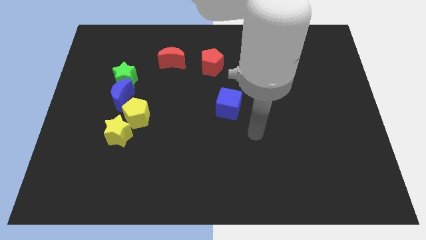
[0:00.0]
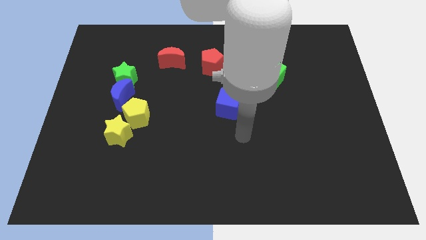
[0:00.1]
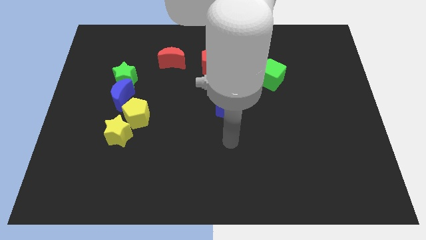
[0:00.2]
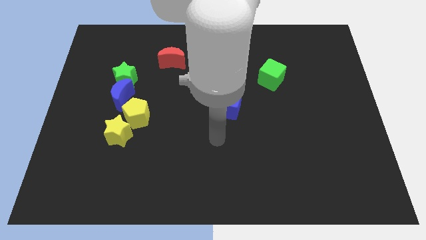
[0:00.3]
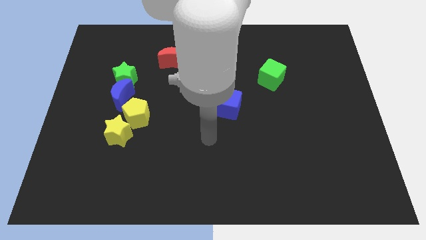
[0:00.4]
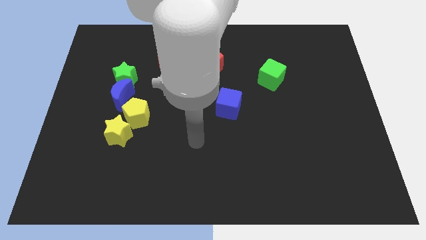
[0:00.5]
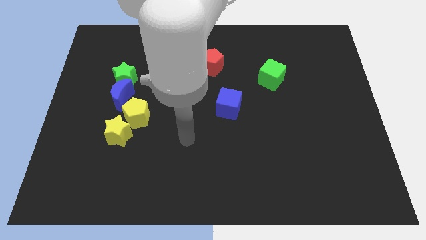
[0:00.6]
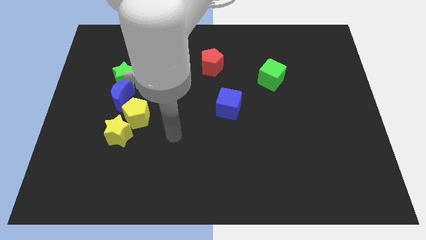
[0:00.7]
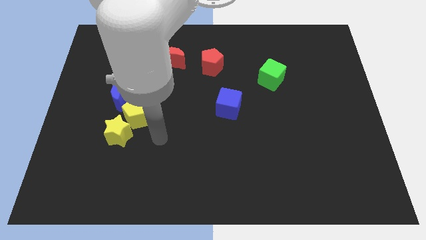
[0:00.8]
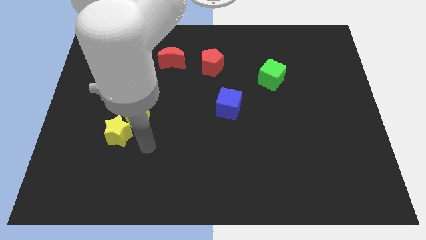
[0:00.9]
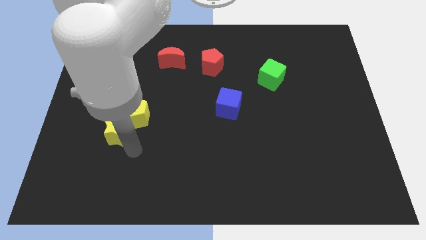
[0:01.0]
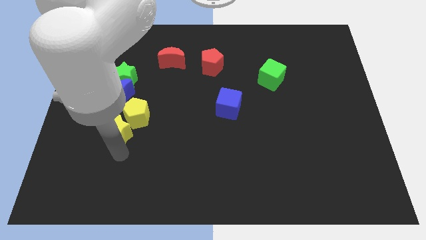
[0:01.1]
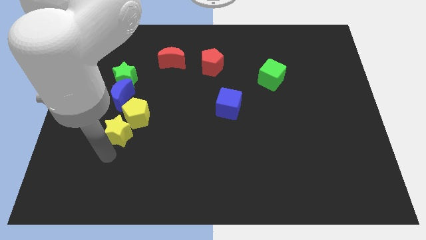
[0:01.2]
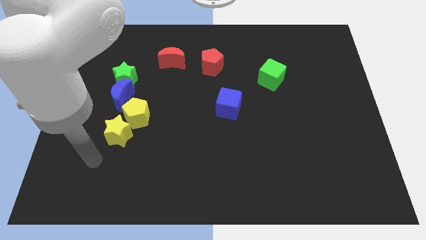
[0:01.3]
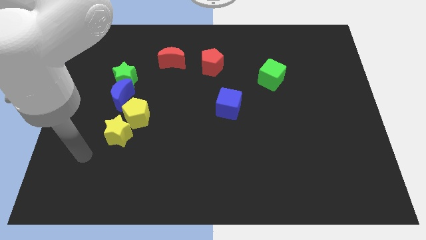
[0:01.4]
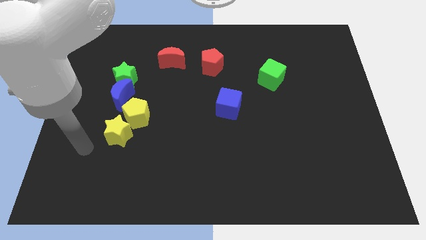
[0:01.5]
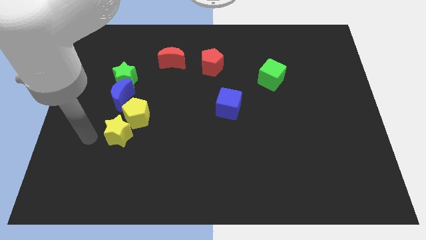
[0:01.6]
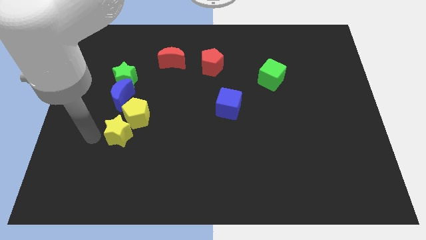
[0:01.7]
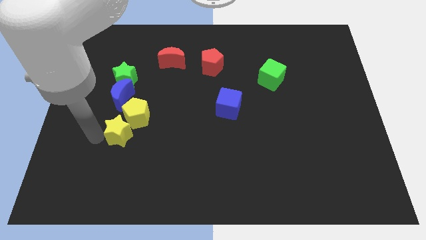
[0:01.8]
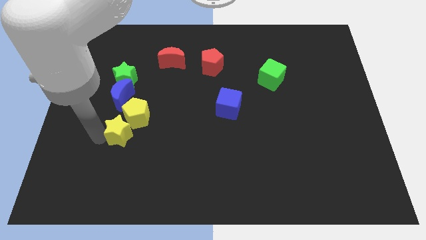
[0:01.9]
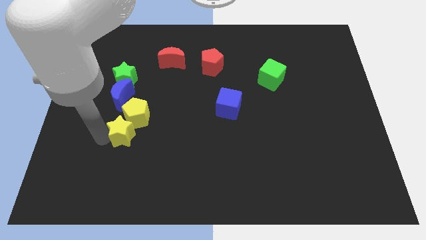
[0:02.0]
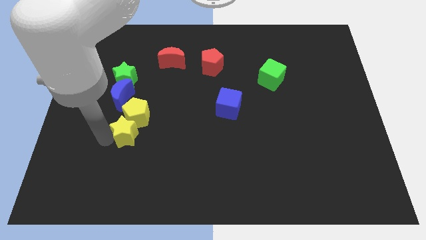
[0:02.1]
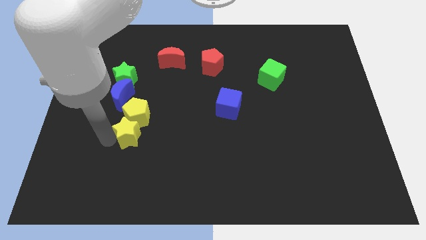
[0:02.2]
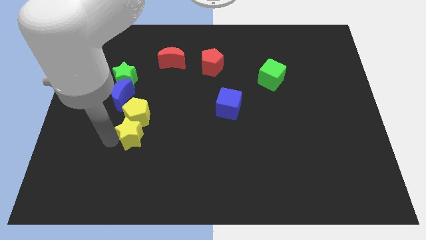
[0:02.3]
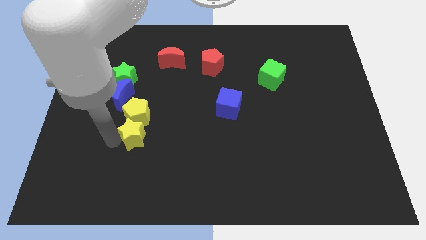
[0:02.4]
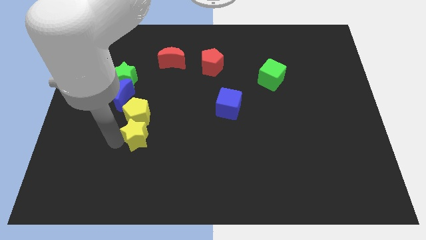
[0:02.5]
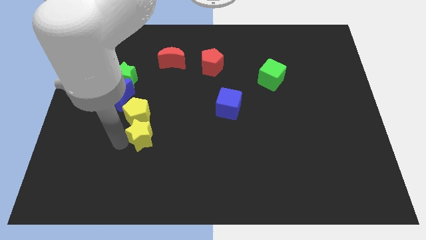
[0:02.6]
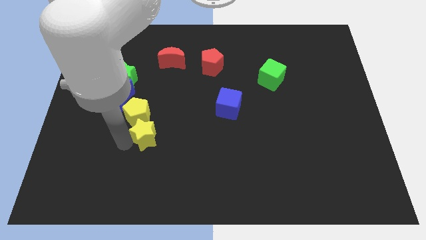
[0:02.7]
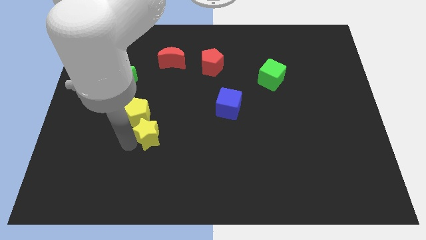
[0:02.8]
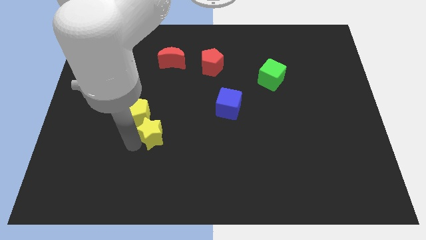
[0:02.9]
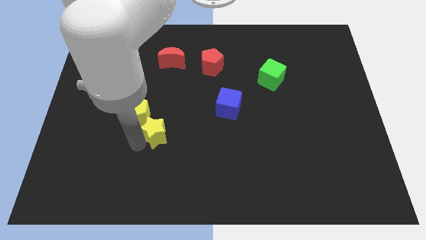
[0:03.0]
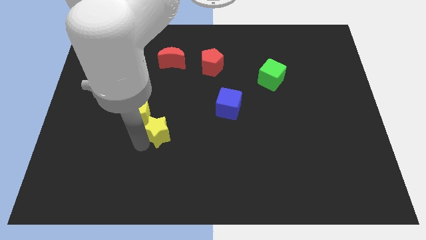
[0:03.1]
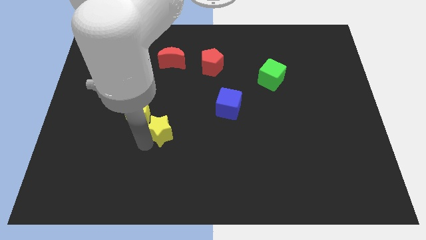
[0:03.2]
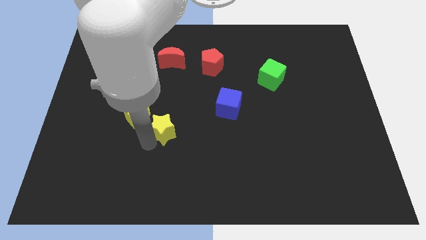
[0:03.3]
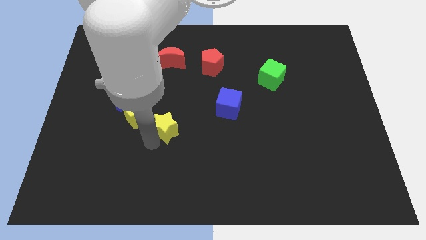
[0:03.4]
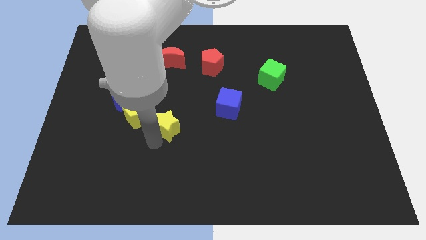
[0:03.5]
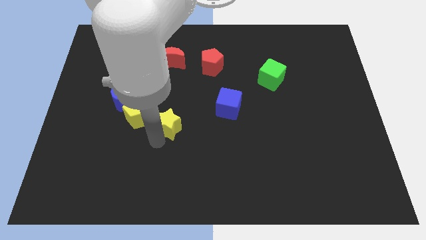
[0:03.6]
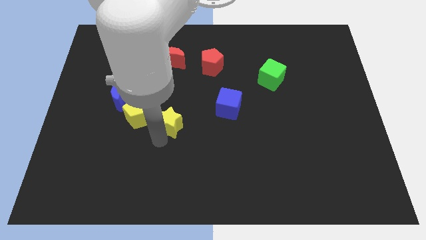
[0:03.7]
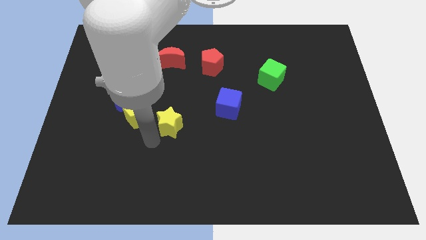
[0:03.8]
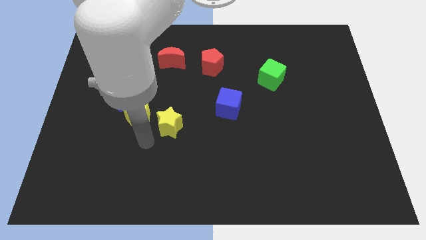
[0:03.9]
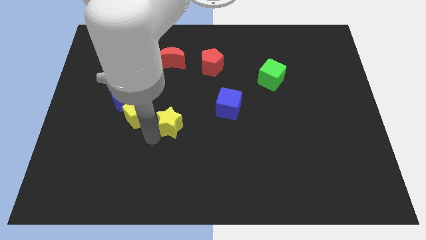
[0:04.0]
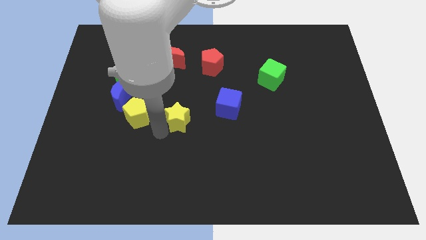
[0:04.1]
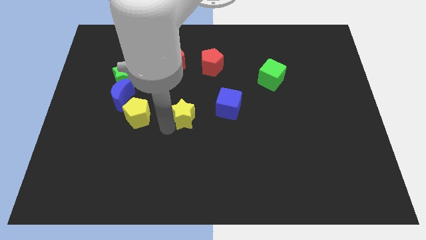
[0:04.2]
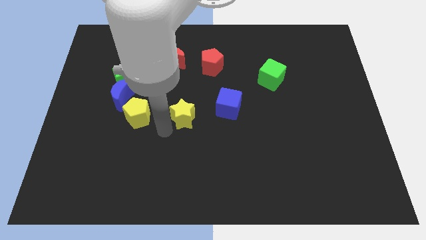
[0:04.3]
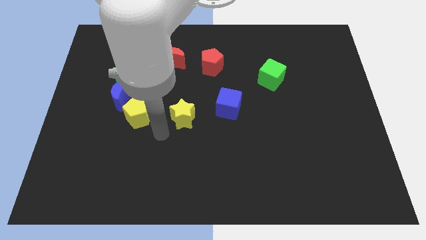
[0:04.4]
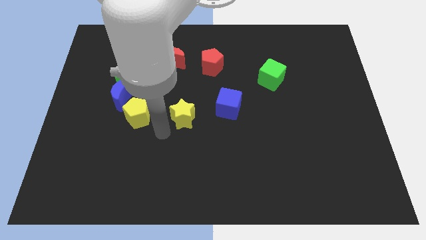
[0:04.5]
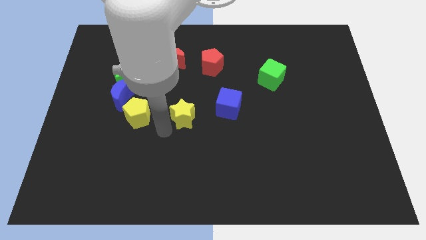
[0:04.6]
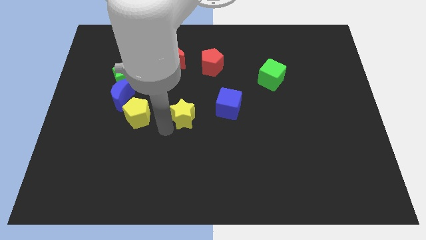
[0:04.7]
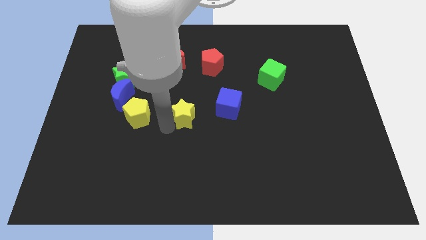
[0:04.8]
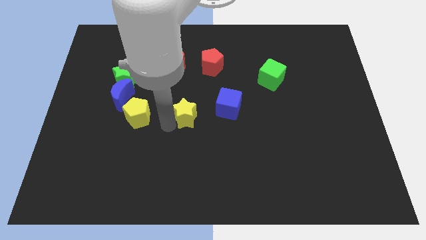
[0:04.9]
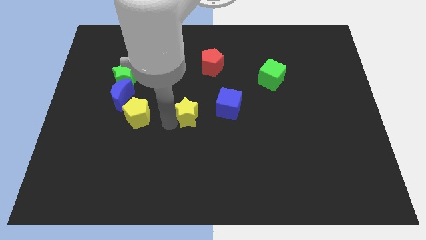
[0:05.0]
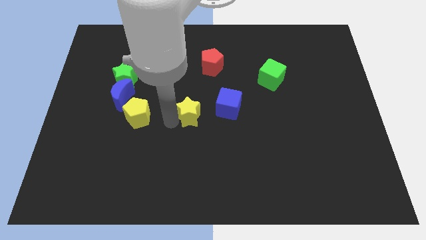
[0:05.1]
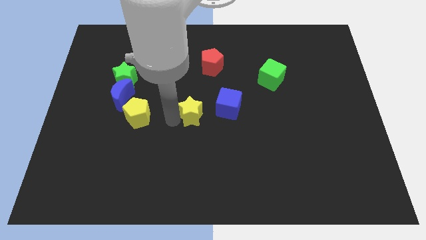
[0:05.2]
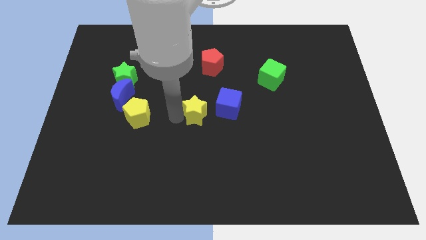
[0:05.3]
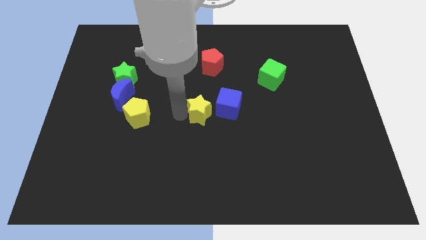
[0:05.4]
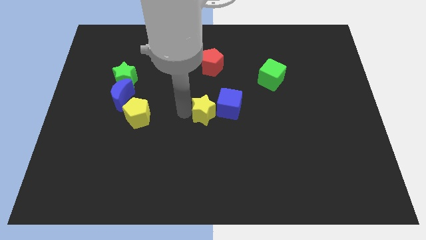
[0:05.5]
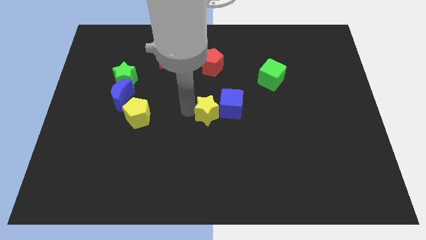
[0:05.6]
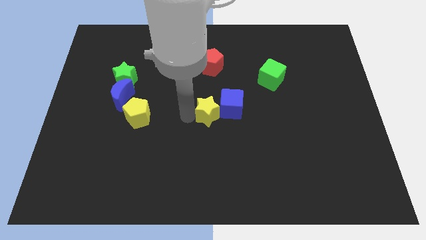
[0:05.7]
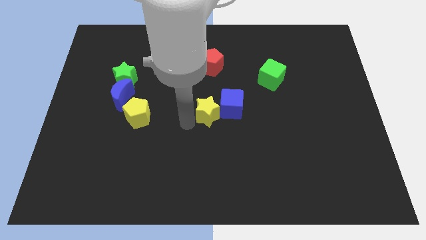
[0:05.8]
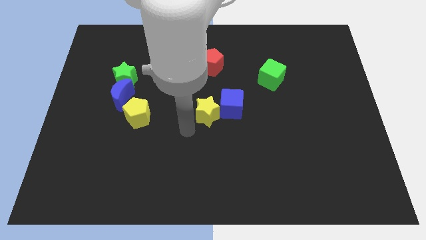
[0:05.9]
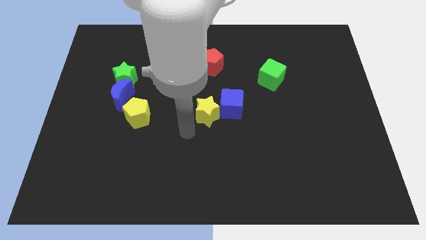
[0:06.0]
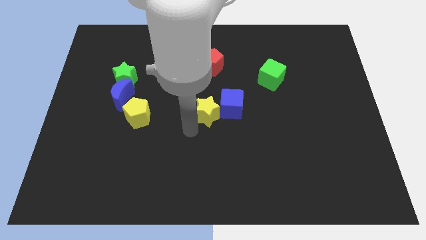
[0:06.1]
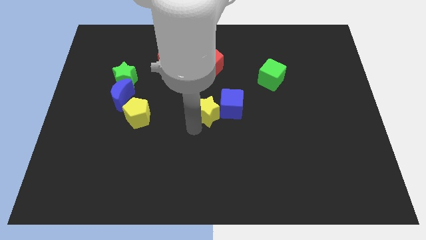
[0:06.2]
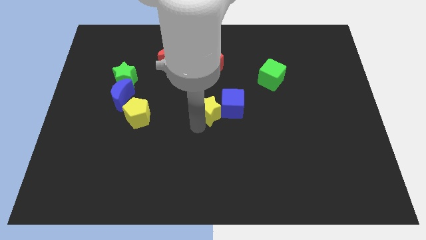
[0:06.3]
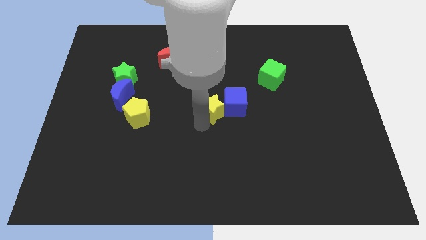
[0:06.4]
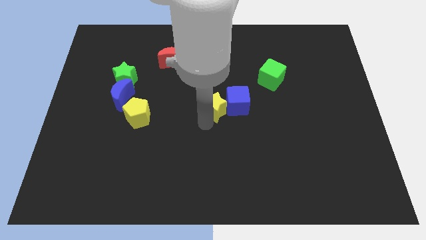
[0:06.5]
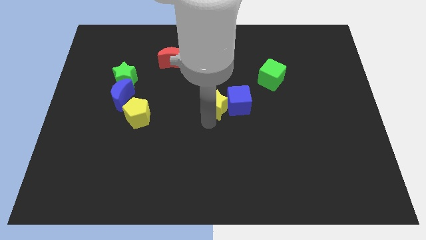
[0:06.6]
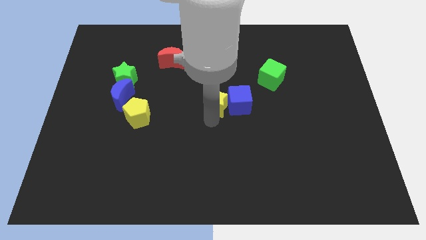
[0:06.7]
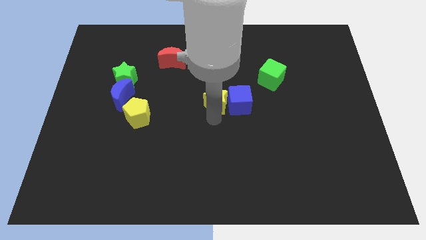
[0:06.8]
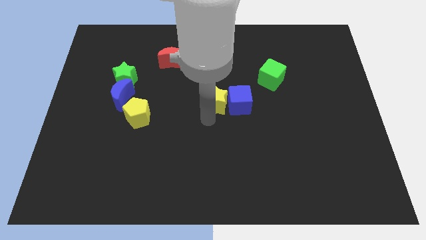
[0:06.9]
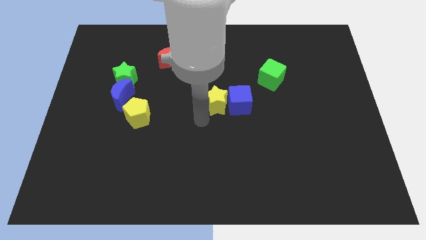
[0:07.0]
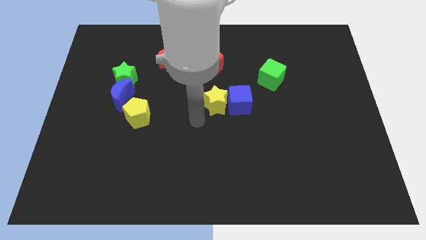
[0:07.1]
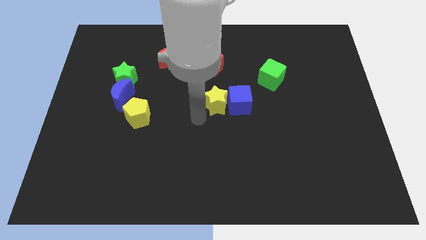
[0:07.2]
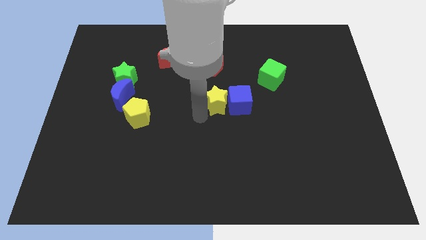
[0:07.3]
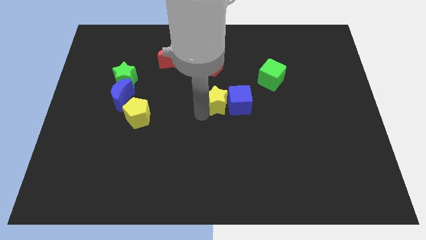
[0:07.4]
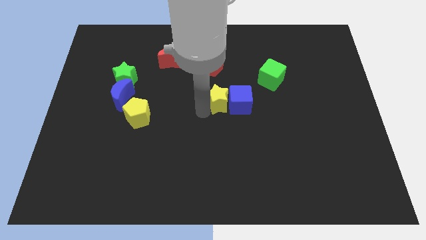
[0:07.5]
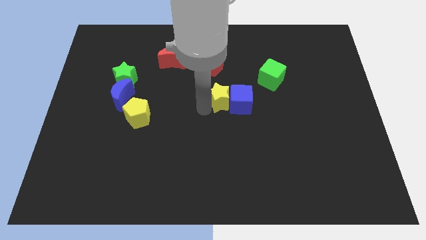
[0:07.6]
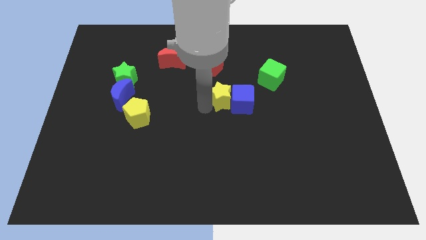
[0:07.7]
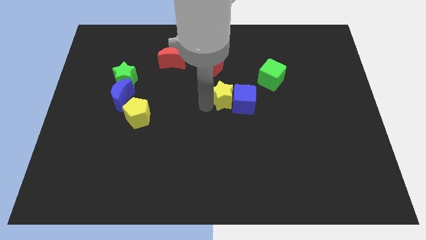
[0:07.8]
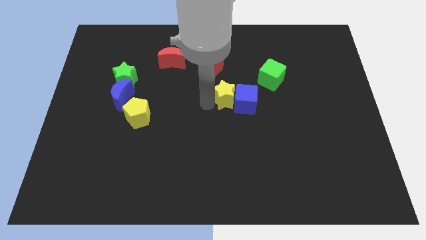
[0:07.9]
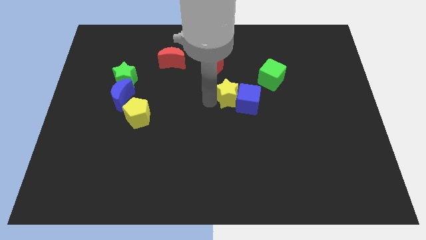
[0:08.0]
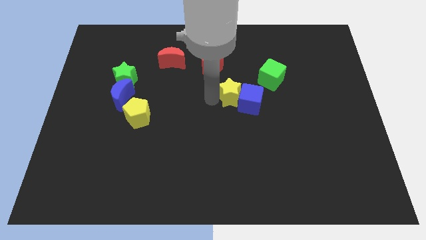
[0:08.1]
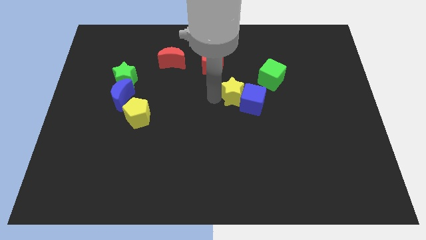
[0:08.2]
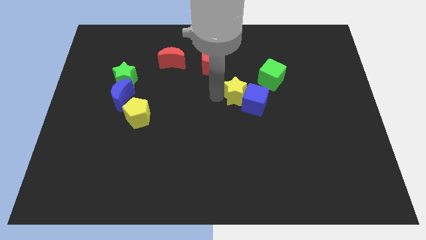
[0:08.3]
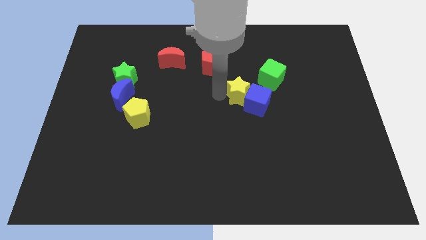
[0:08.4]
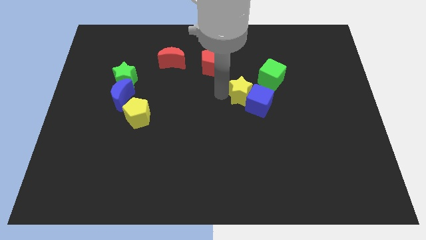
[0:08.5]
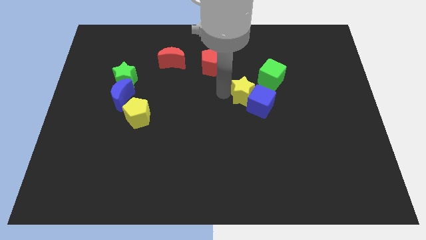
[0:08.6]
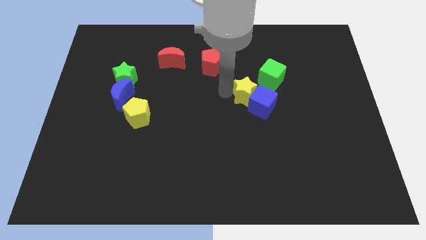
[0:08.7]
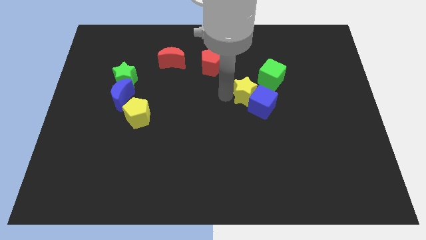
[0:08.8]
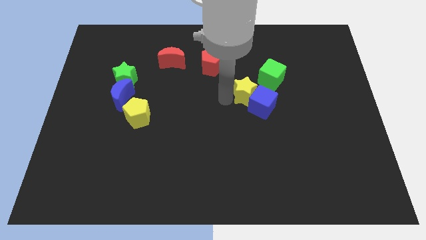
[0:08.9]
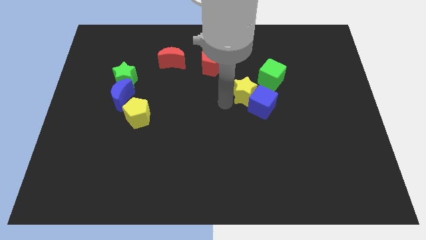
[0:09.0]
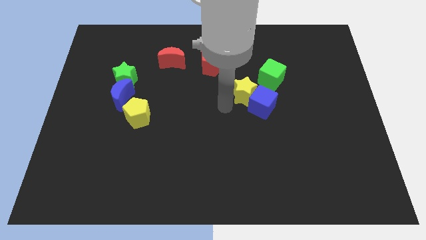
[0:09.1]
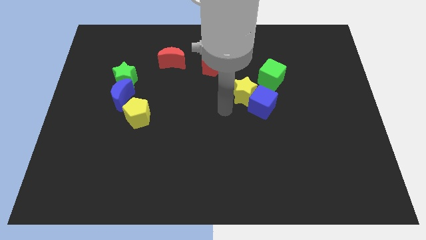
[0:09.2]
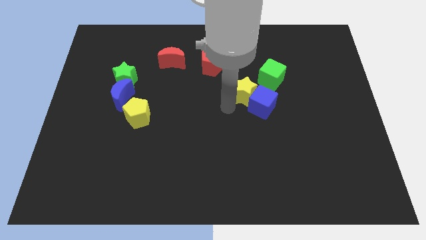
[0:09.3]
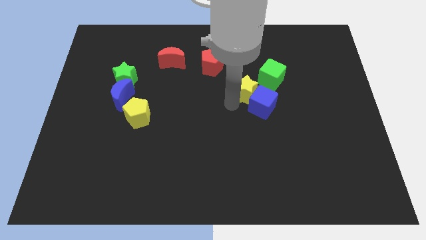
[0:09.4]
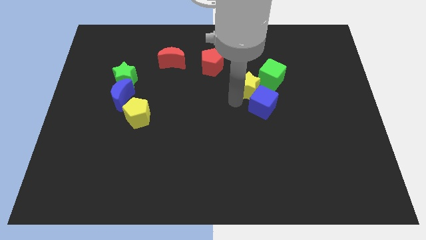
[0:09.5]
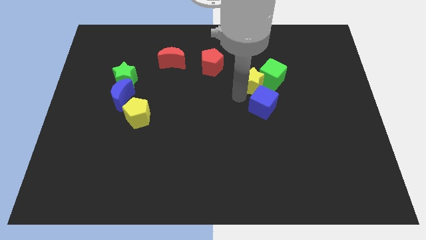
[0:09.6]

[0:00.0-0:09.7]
slide the yellow star to the green cube
